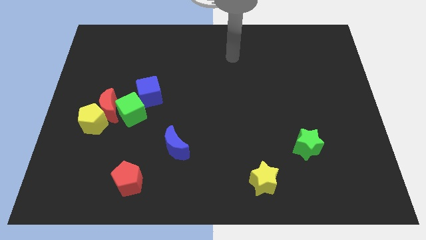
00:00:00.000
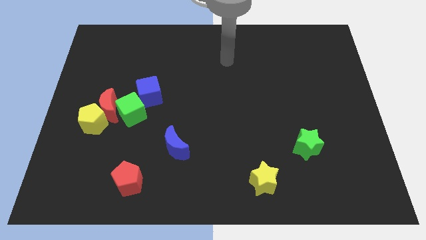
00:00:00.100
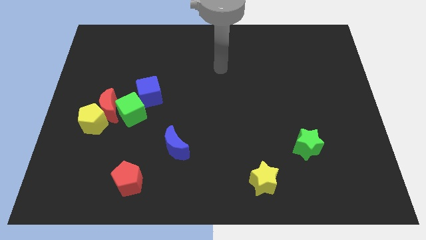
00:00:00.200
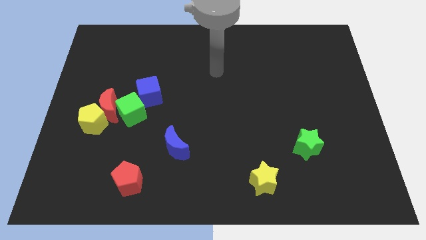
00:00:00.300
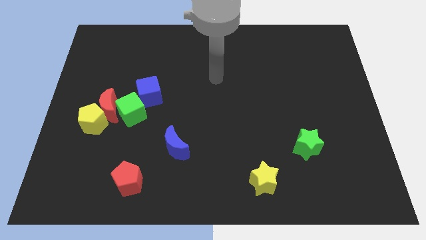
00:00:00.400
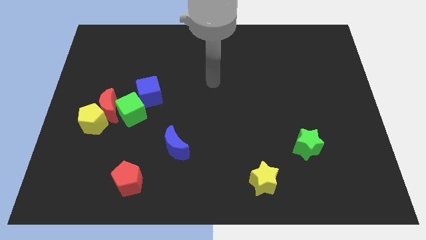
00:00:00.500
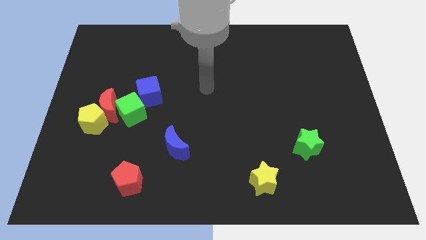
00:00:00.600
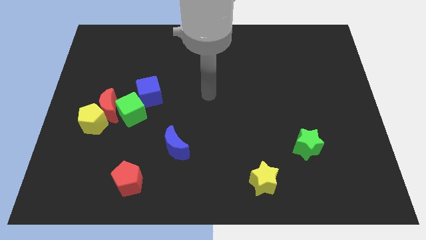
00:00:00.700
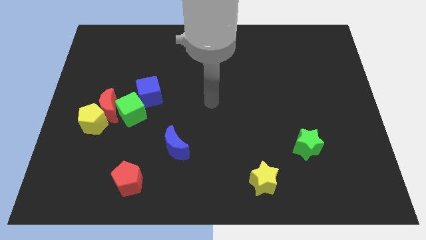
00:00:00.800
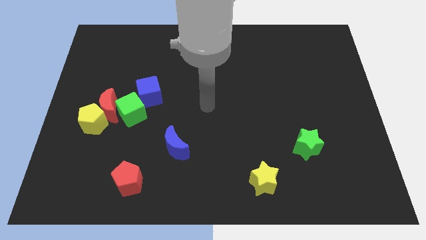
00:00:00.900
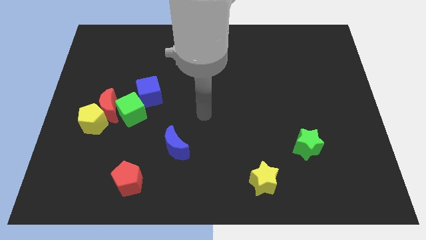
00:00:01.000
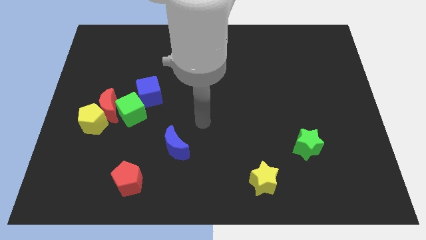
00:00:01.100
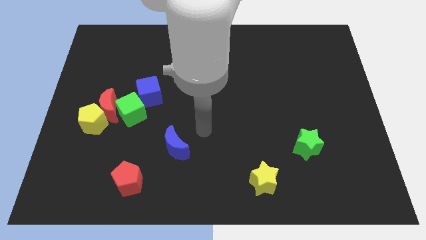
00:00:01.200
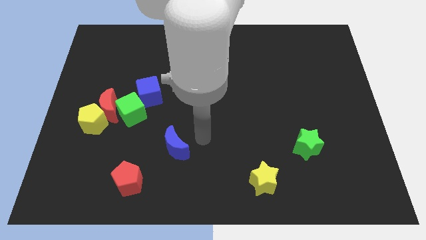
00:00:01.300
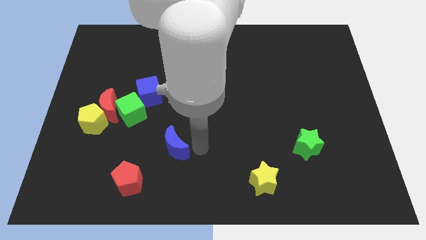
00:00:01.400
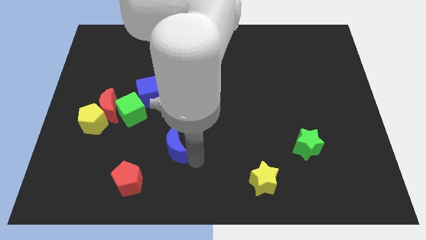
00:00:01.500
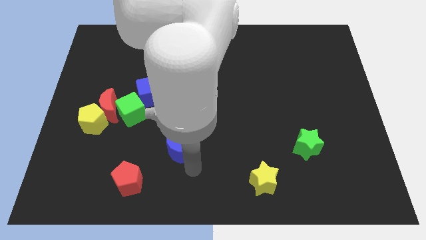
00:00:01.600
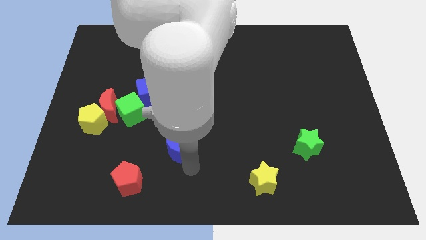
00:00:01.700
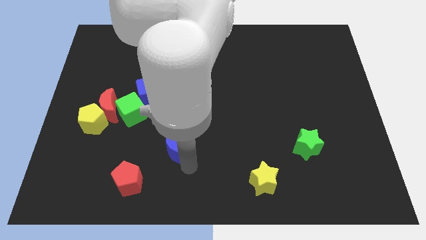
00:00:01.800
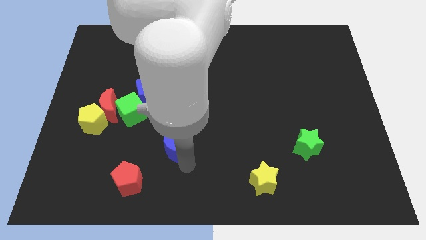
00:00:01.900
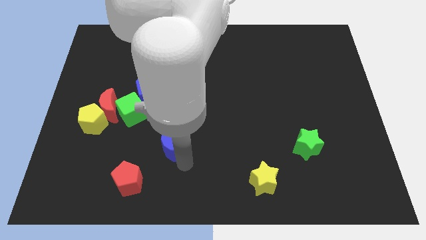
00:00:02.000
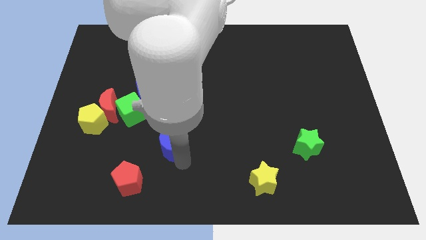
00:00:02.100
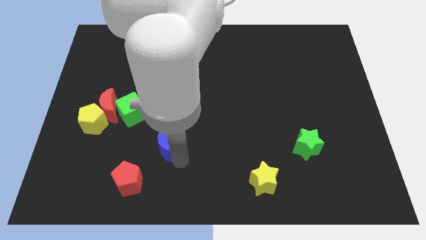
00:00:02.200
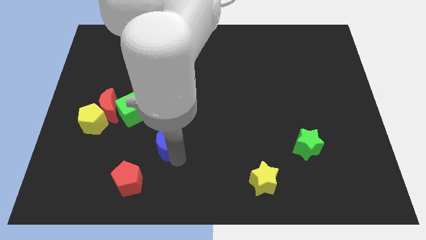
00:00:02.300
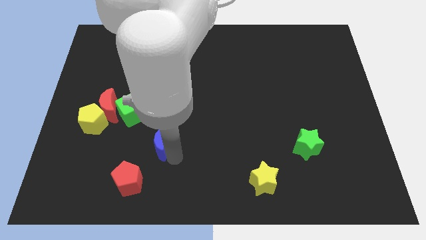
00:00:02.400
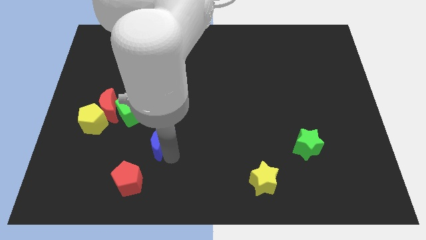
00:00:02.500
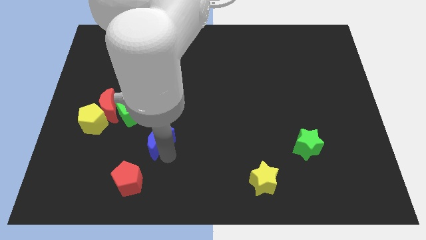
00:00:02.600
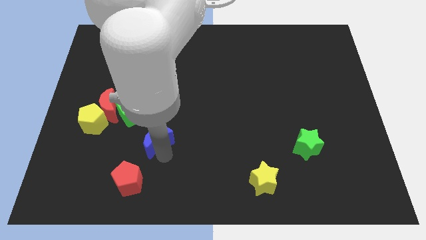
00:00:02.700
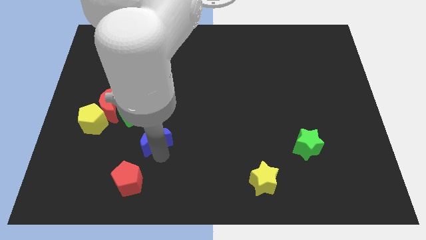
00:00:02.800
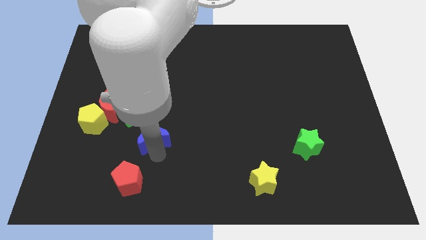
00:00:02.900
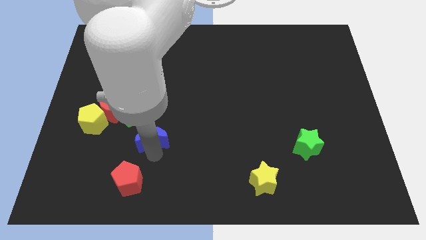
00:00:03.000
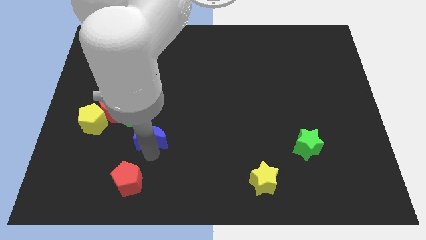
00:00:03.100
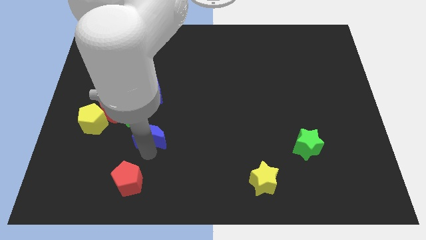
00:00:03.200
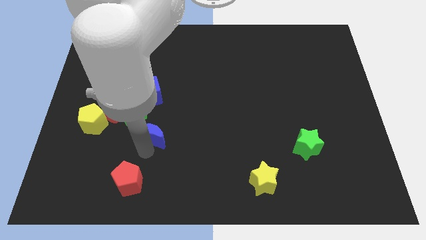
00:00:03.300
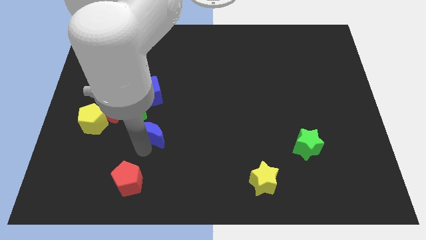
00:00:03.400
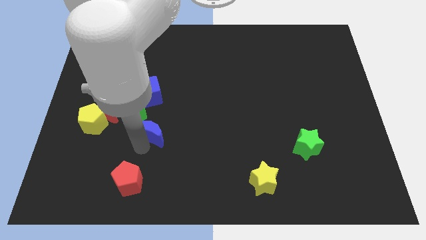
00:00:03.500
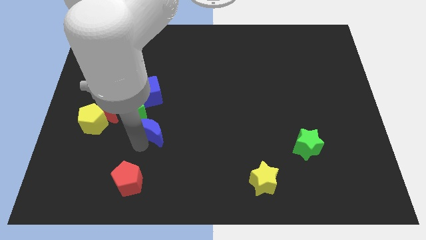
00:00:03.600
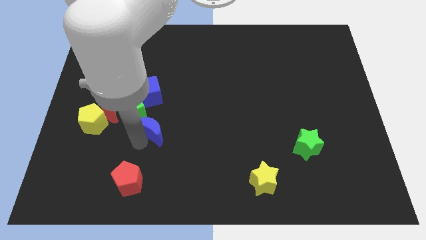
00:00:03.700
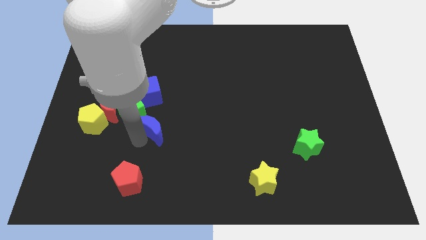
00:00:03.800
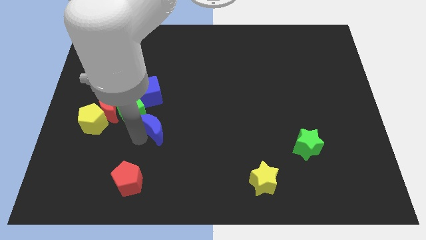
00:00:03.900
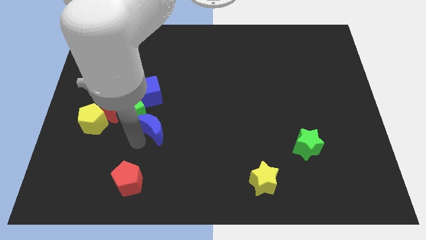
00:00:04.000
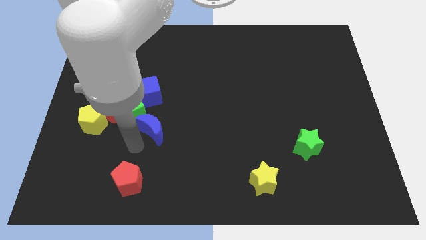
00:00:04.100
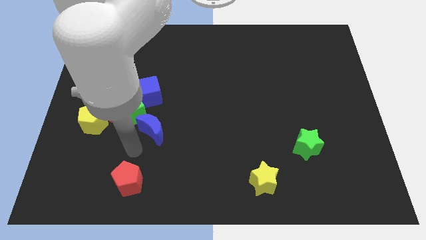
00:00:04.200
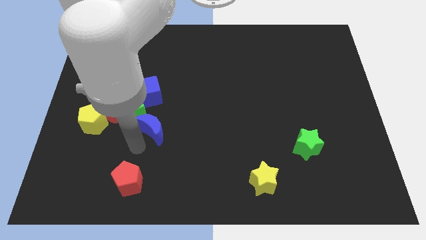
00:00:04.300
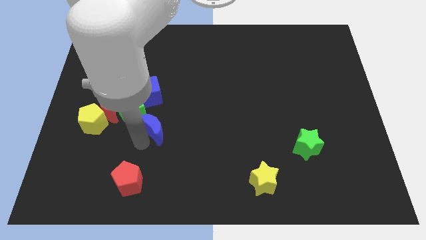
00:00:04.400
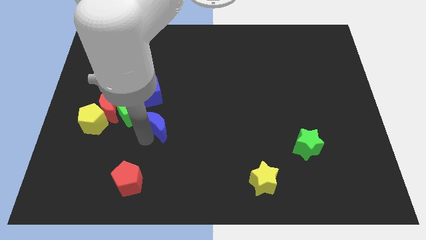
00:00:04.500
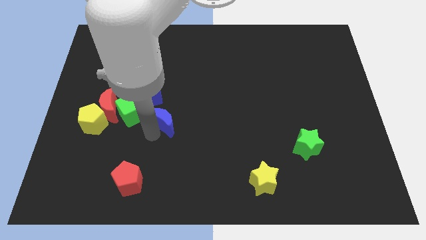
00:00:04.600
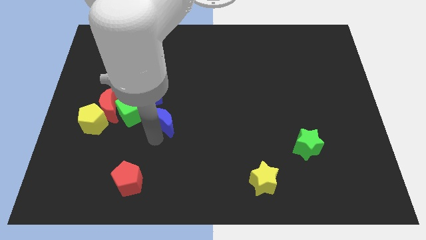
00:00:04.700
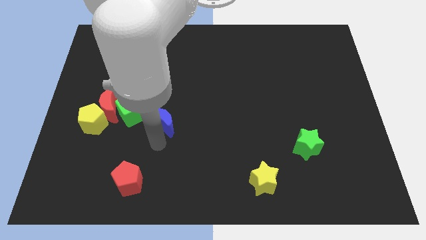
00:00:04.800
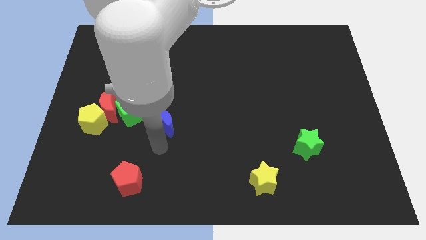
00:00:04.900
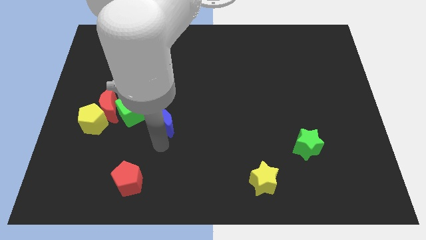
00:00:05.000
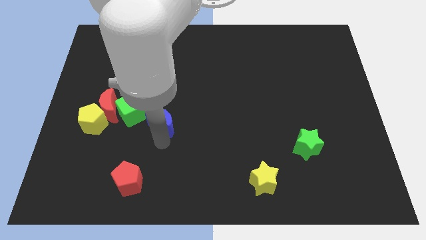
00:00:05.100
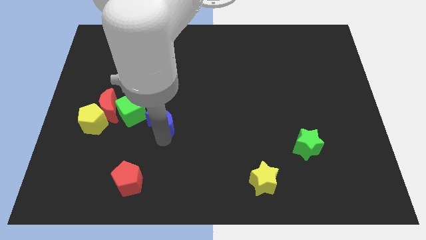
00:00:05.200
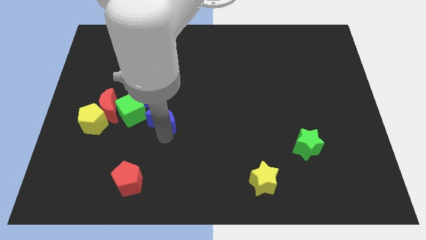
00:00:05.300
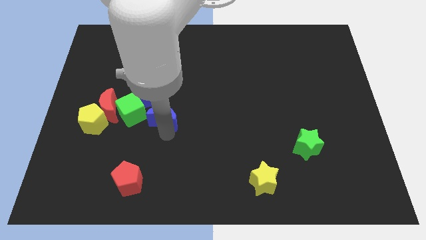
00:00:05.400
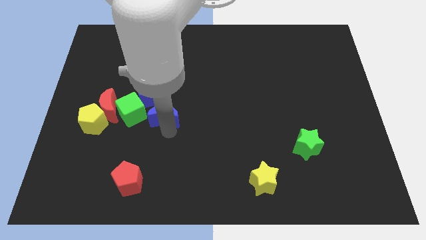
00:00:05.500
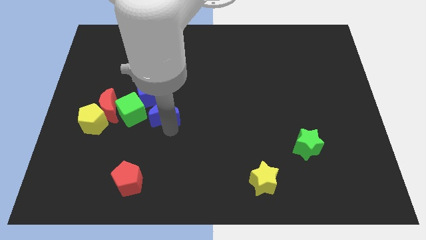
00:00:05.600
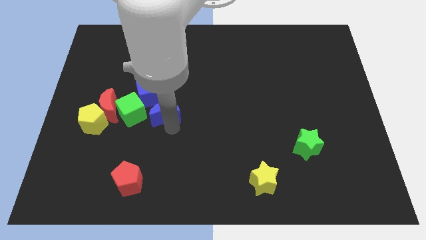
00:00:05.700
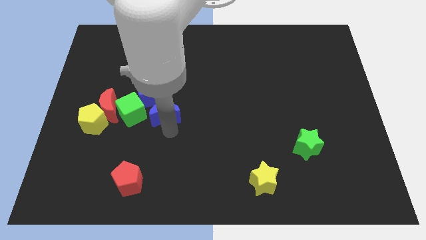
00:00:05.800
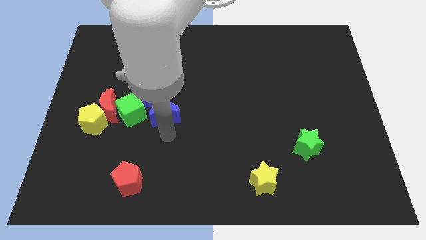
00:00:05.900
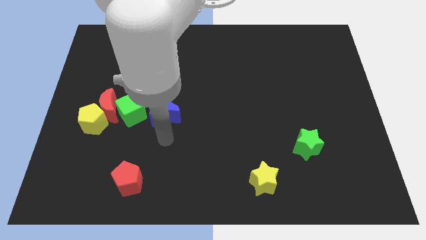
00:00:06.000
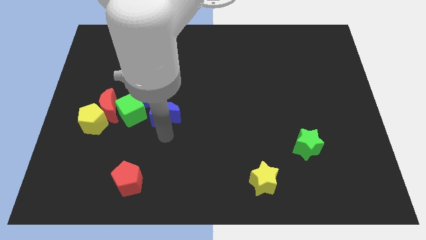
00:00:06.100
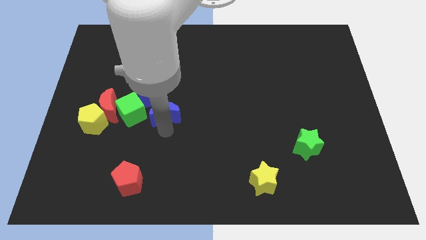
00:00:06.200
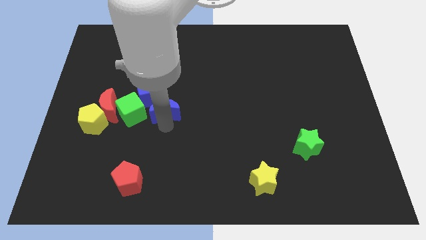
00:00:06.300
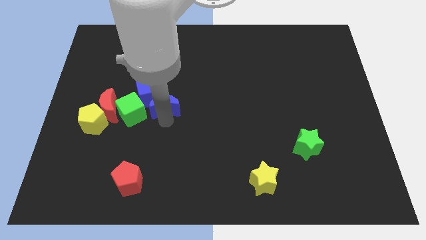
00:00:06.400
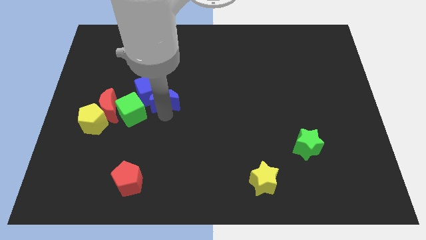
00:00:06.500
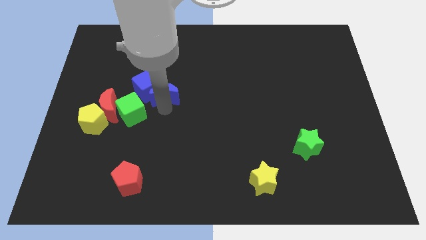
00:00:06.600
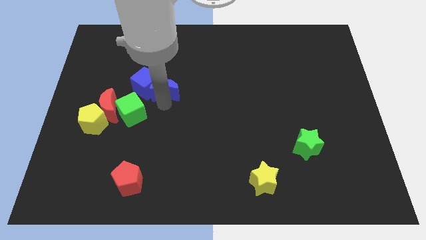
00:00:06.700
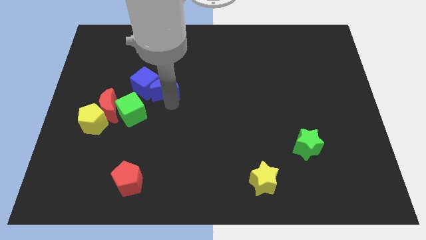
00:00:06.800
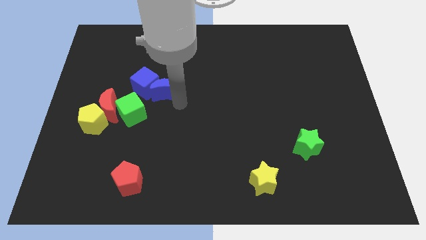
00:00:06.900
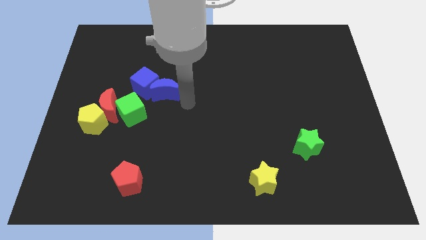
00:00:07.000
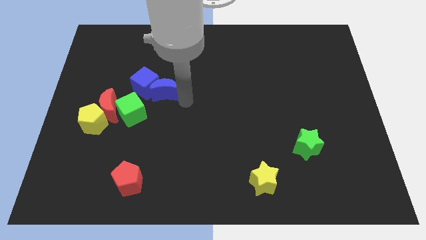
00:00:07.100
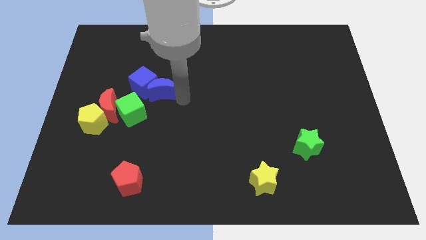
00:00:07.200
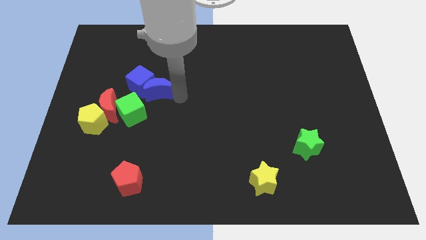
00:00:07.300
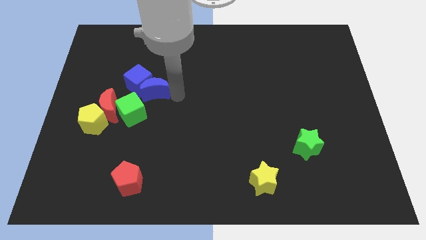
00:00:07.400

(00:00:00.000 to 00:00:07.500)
slide the blue moon to the top of the green cube
